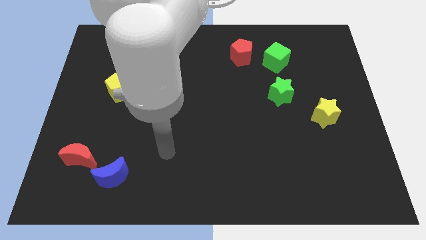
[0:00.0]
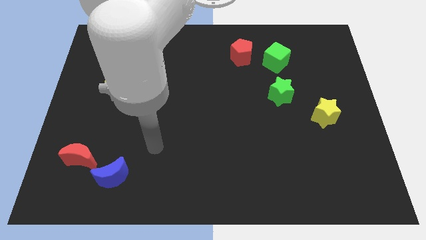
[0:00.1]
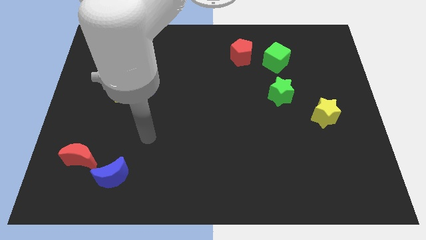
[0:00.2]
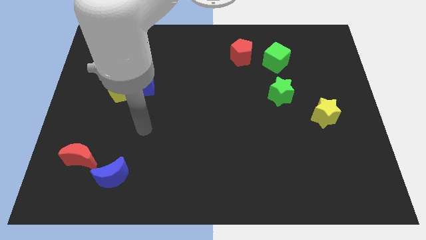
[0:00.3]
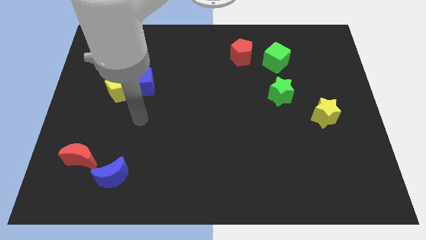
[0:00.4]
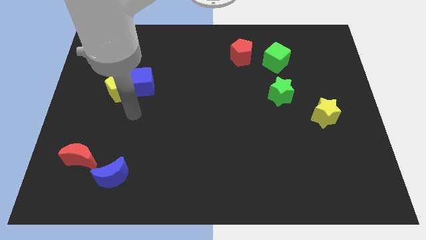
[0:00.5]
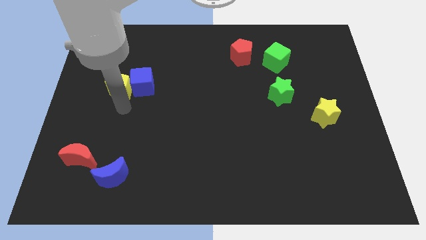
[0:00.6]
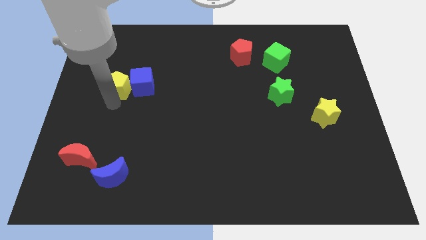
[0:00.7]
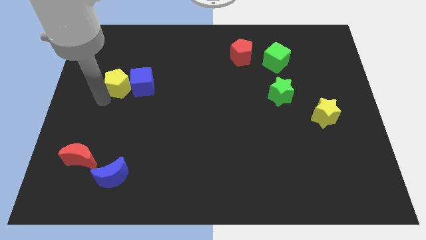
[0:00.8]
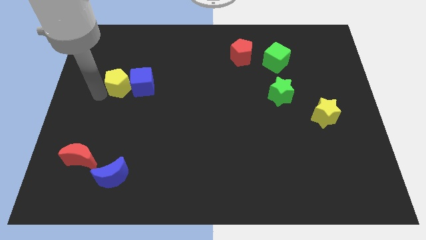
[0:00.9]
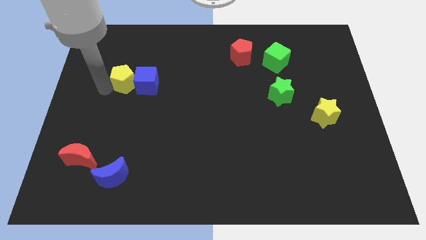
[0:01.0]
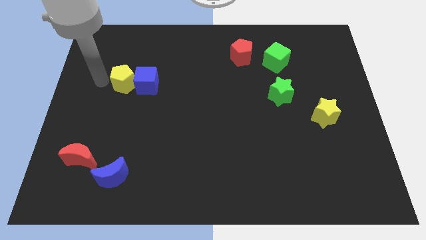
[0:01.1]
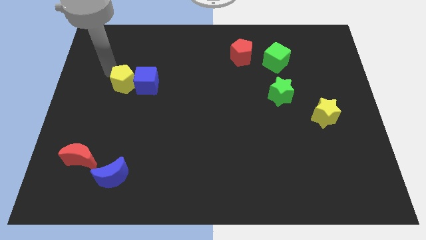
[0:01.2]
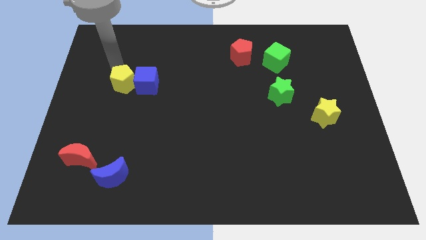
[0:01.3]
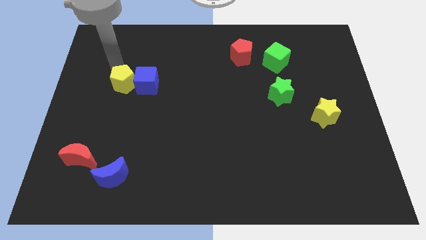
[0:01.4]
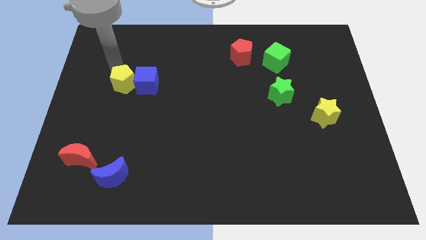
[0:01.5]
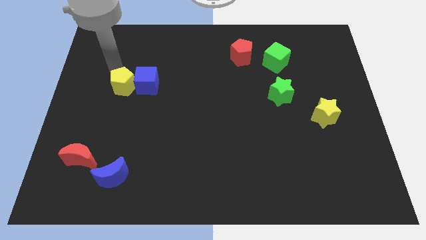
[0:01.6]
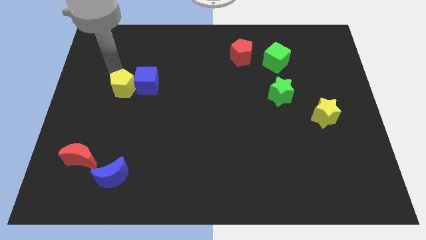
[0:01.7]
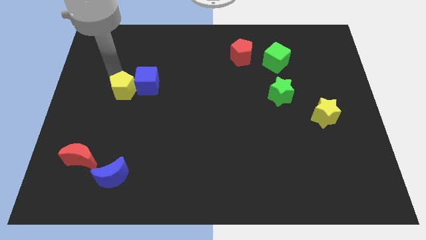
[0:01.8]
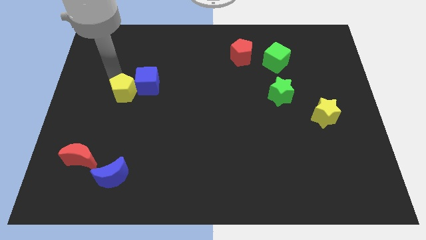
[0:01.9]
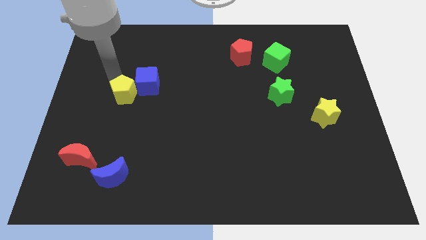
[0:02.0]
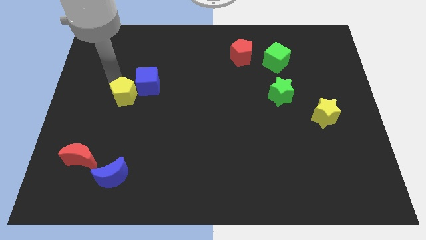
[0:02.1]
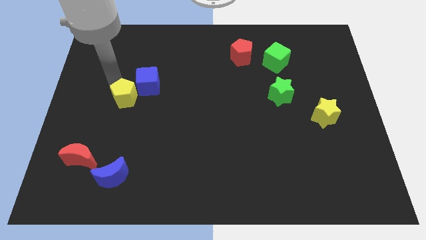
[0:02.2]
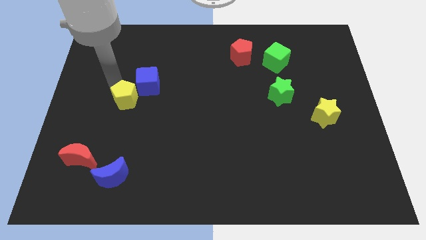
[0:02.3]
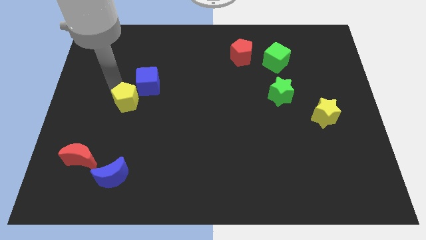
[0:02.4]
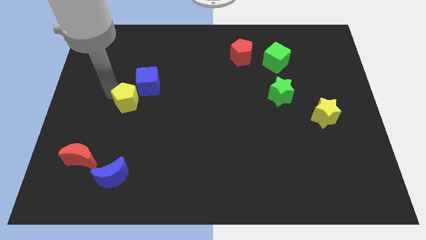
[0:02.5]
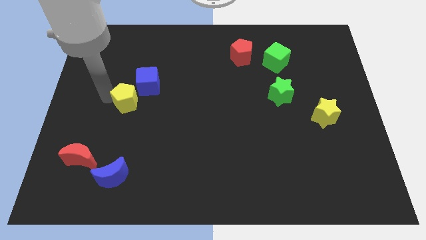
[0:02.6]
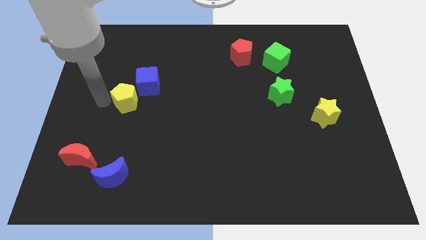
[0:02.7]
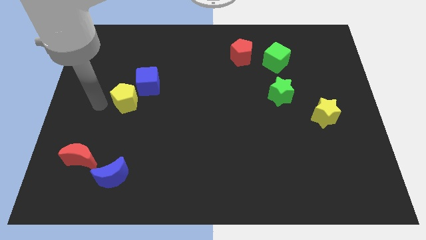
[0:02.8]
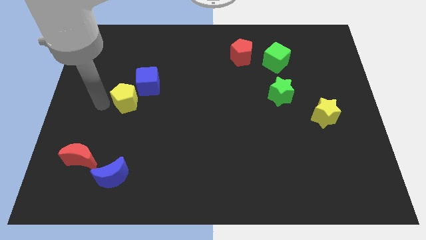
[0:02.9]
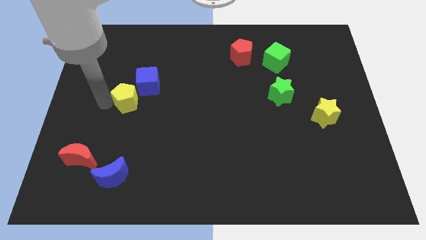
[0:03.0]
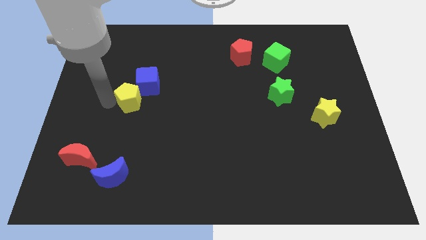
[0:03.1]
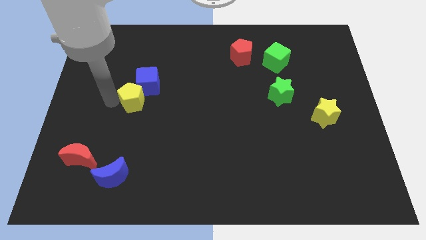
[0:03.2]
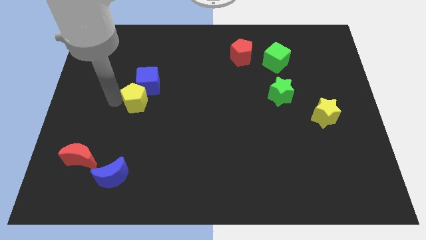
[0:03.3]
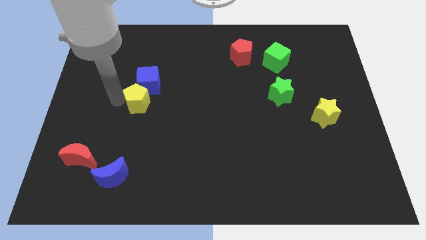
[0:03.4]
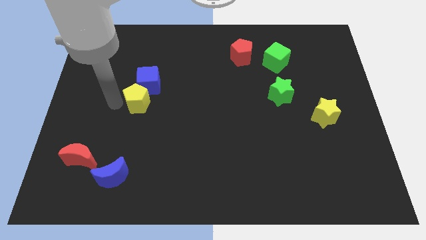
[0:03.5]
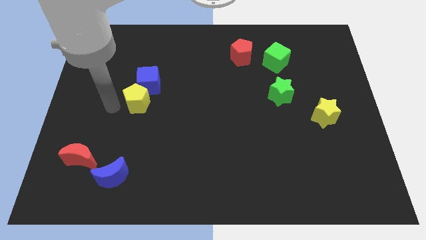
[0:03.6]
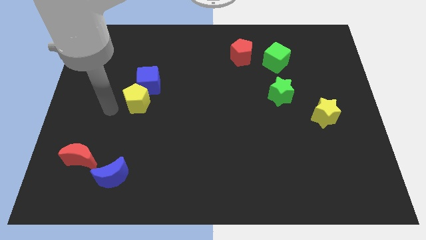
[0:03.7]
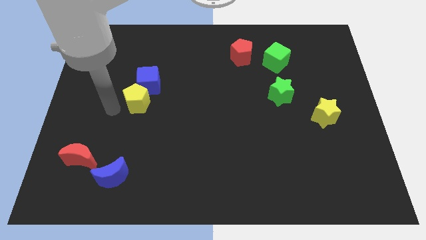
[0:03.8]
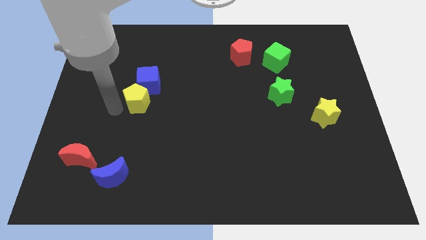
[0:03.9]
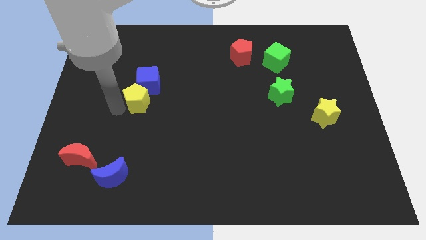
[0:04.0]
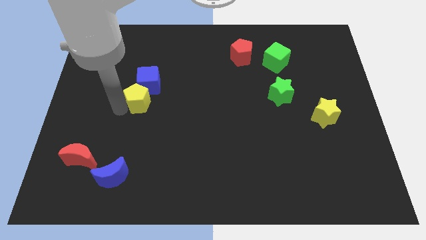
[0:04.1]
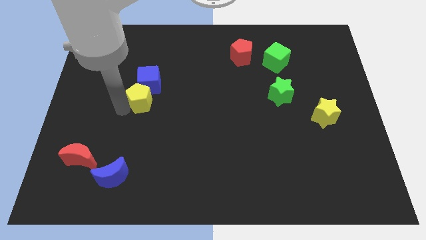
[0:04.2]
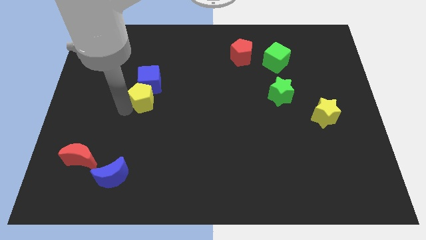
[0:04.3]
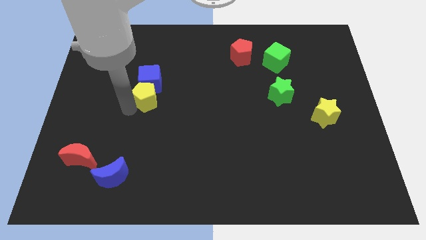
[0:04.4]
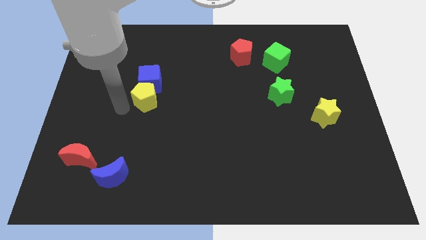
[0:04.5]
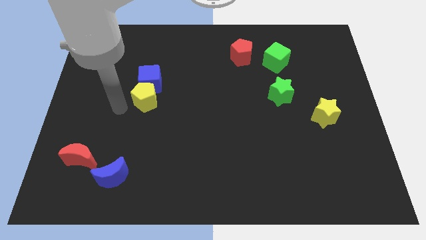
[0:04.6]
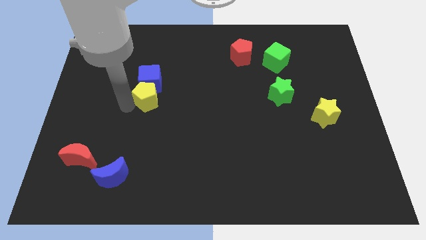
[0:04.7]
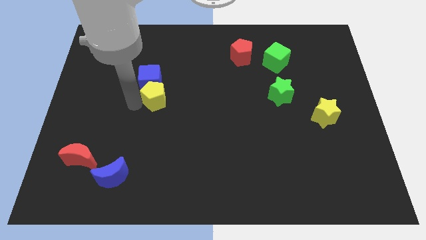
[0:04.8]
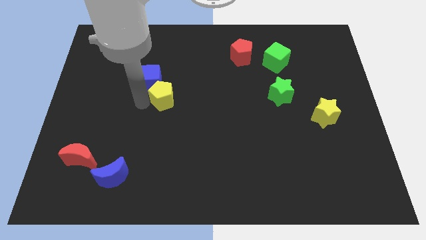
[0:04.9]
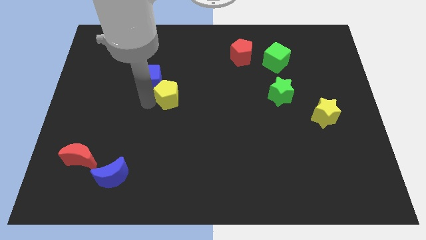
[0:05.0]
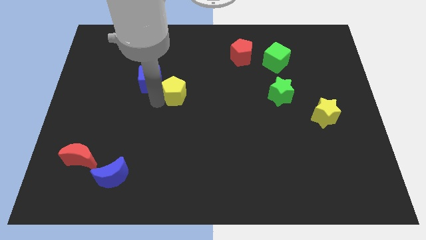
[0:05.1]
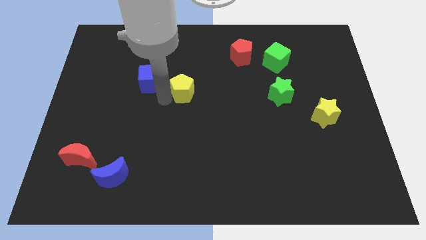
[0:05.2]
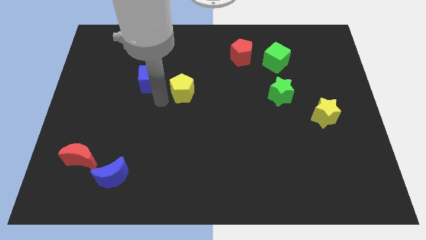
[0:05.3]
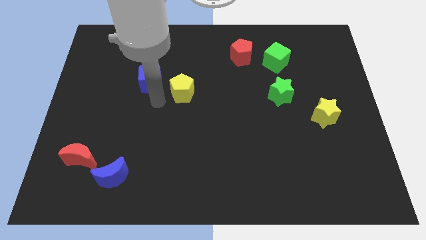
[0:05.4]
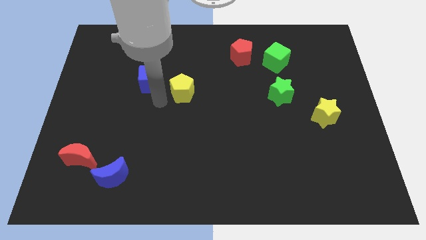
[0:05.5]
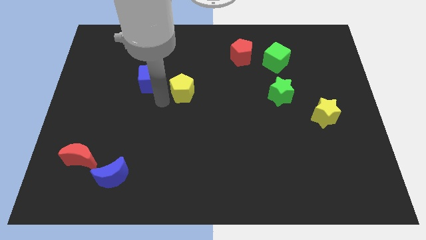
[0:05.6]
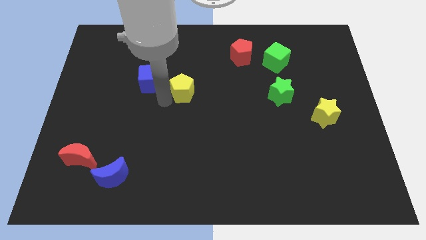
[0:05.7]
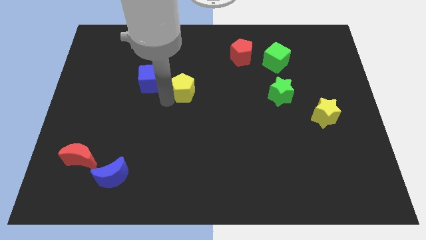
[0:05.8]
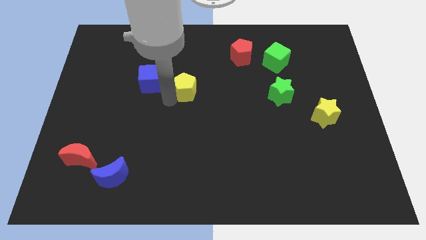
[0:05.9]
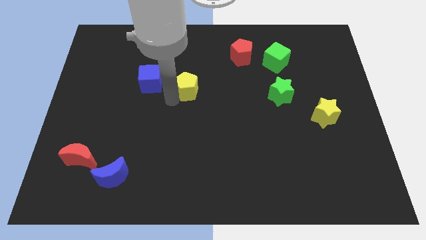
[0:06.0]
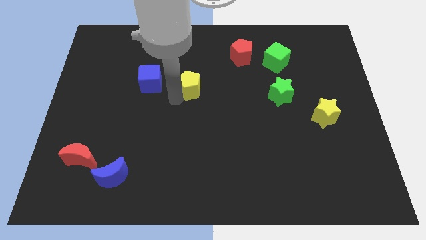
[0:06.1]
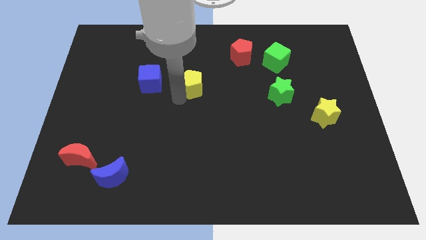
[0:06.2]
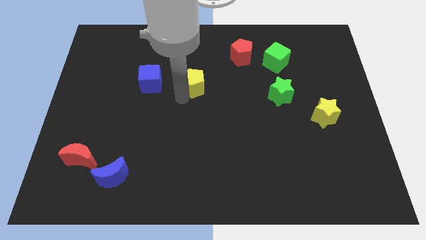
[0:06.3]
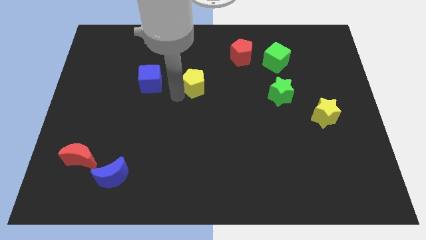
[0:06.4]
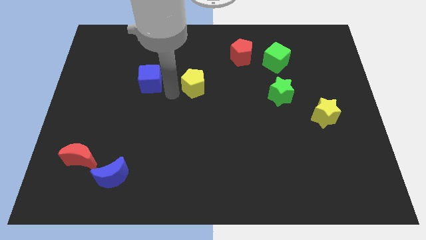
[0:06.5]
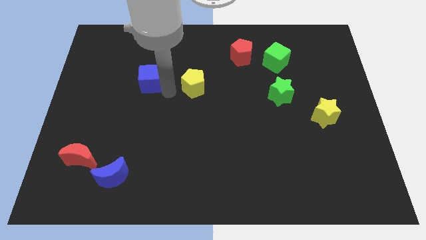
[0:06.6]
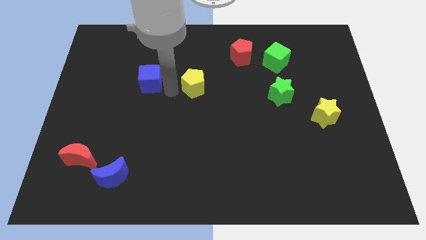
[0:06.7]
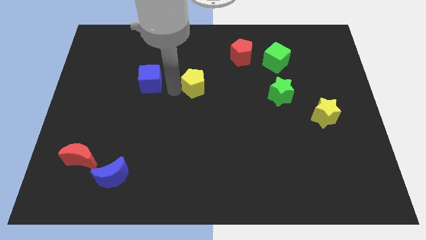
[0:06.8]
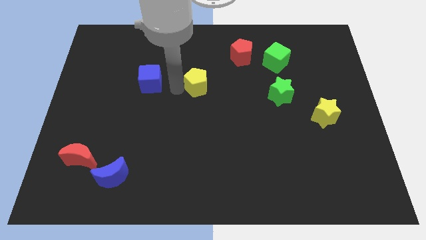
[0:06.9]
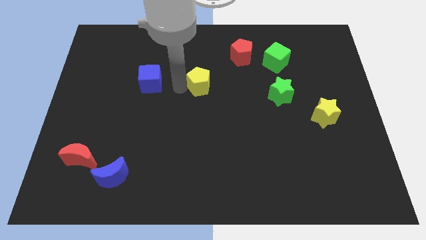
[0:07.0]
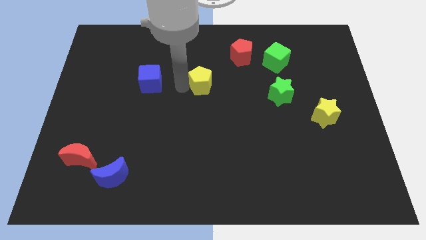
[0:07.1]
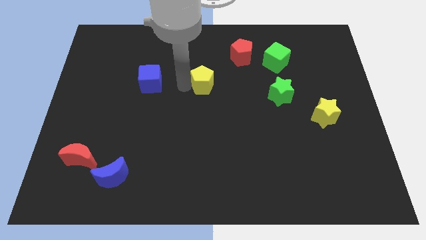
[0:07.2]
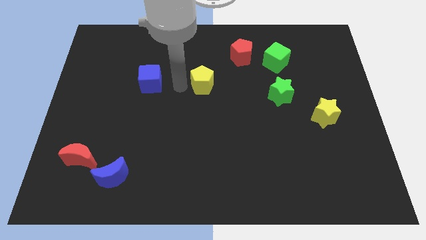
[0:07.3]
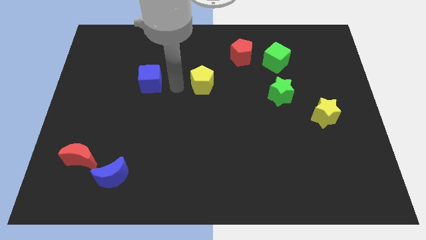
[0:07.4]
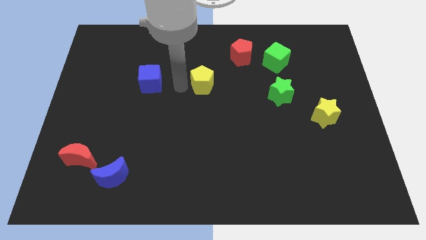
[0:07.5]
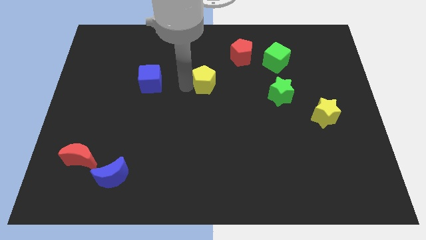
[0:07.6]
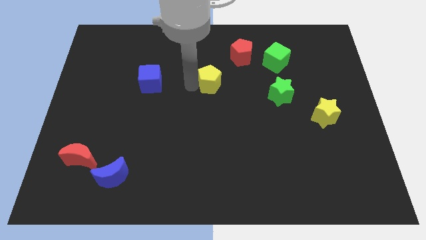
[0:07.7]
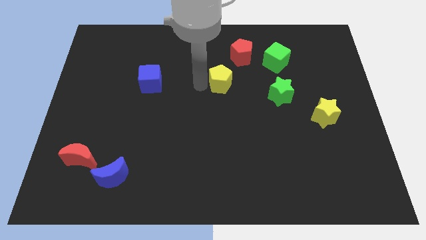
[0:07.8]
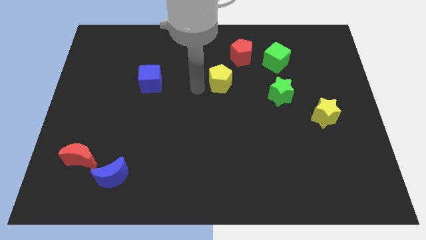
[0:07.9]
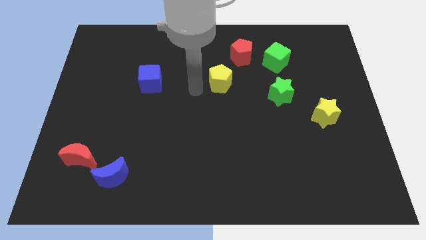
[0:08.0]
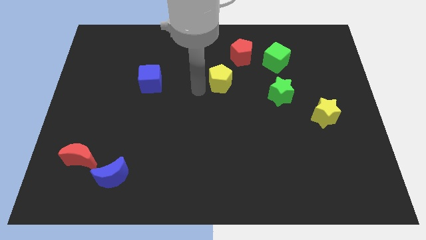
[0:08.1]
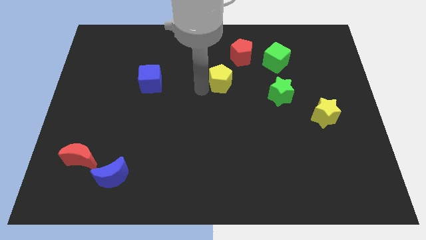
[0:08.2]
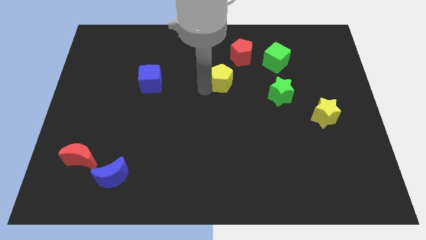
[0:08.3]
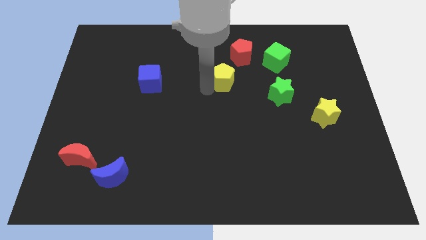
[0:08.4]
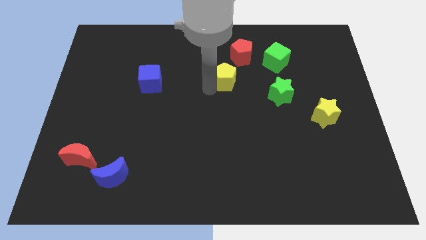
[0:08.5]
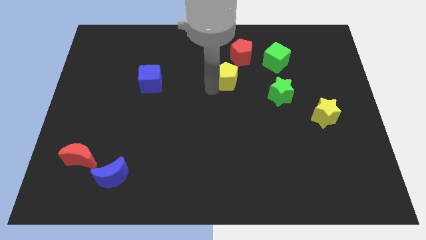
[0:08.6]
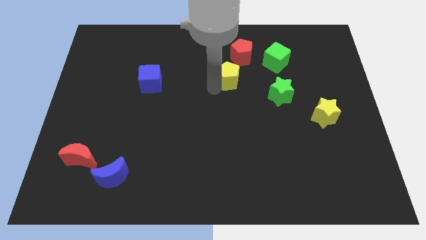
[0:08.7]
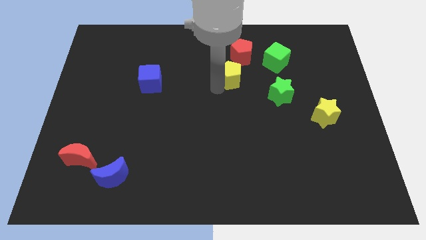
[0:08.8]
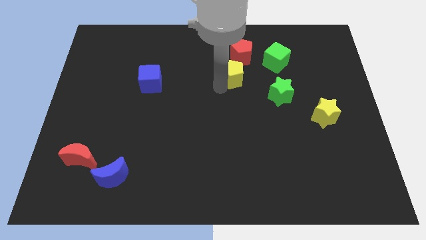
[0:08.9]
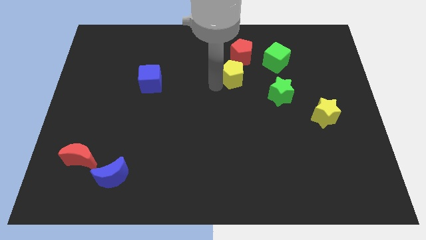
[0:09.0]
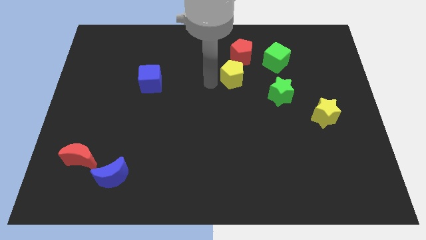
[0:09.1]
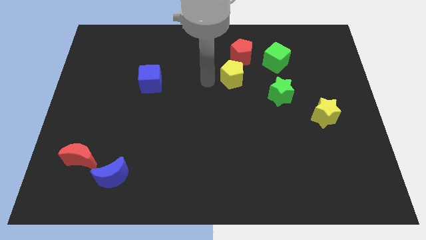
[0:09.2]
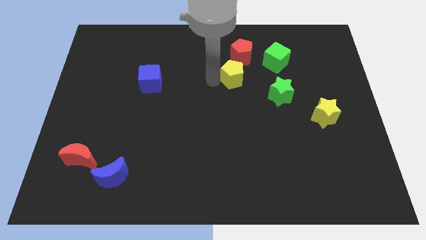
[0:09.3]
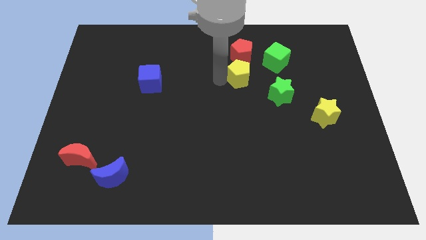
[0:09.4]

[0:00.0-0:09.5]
slide the yellow pentagon to the bottom left of the green cube
